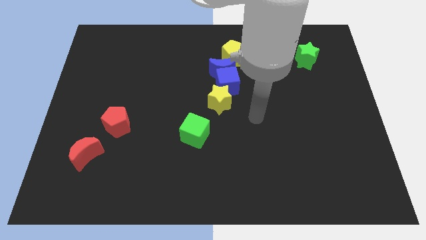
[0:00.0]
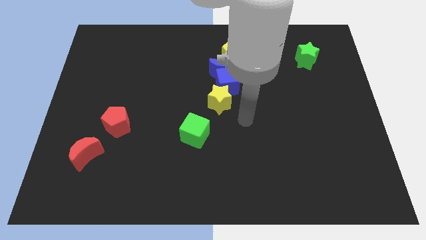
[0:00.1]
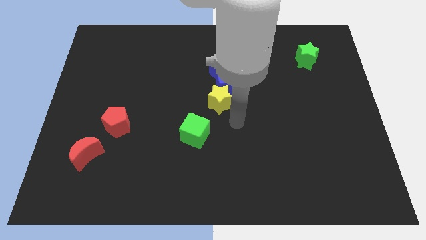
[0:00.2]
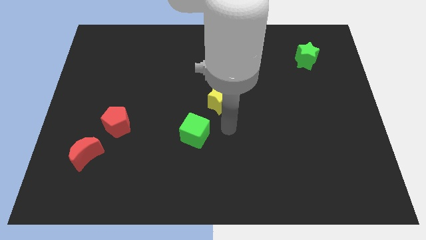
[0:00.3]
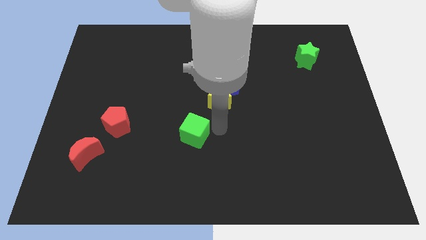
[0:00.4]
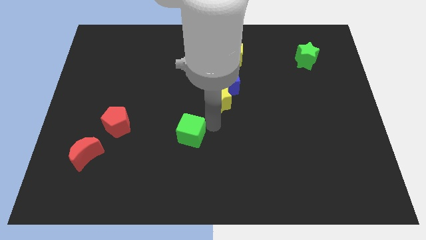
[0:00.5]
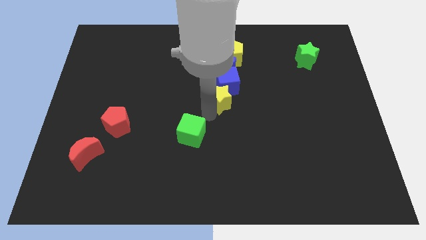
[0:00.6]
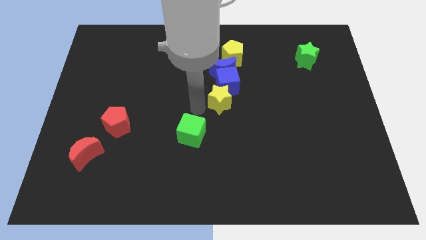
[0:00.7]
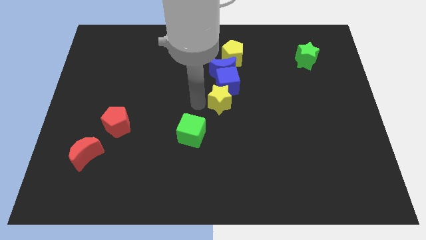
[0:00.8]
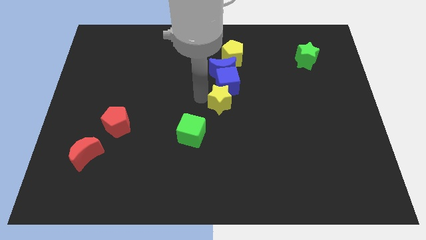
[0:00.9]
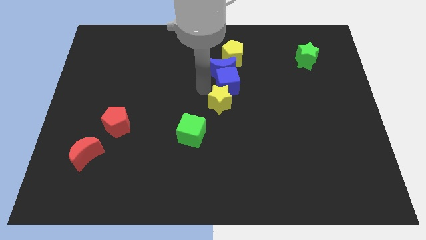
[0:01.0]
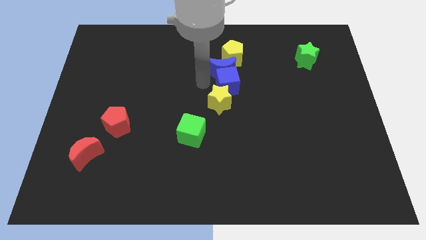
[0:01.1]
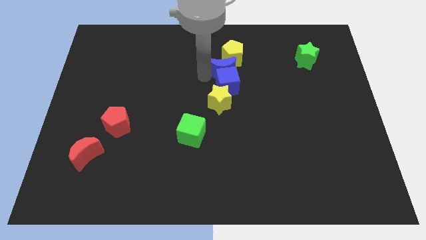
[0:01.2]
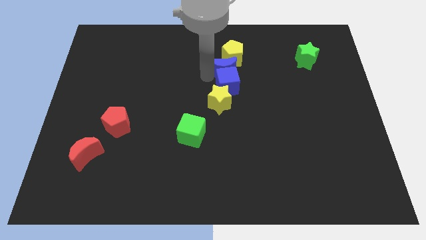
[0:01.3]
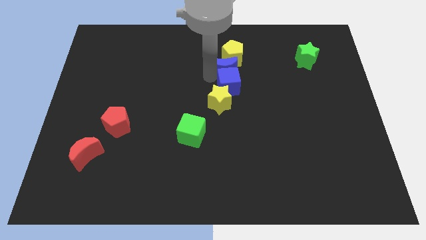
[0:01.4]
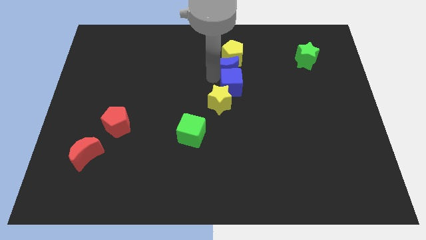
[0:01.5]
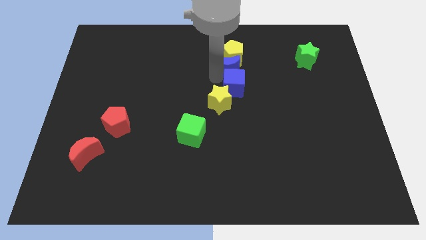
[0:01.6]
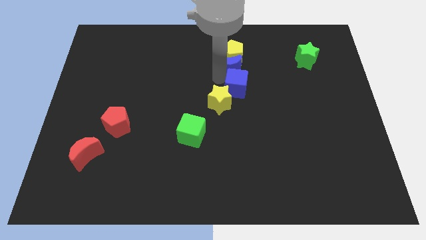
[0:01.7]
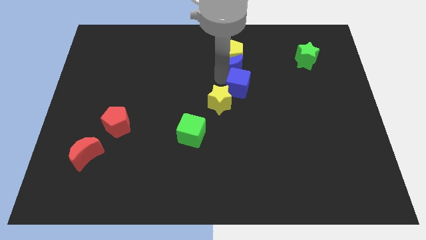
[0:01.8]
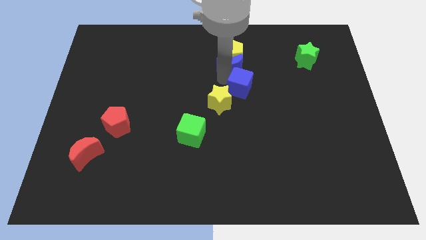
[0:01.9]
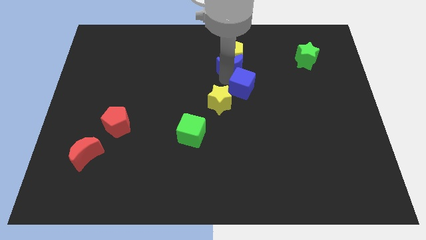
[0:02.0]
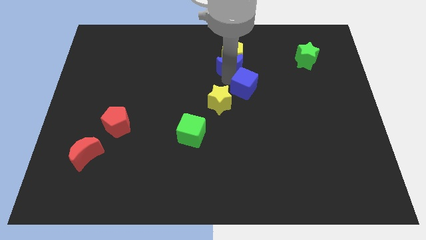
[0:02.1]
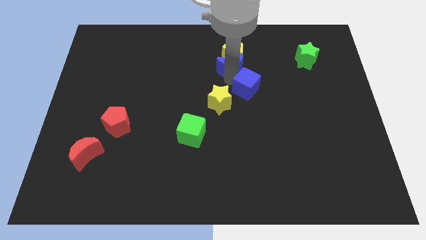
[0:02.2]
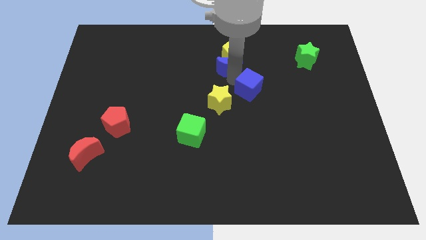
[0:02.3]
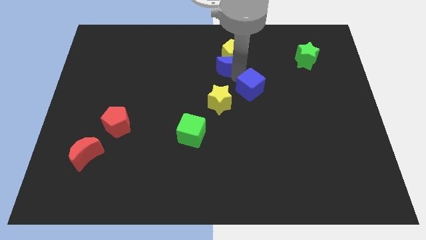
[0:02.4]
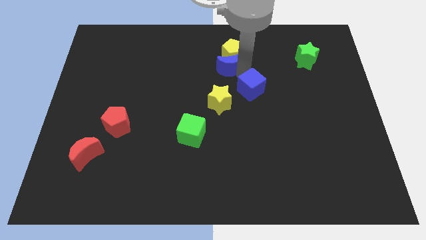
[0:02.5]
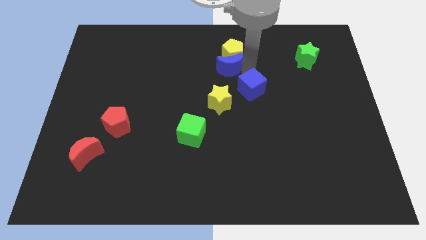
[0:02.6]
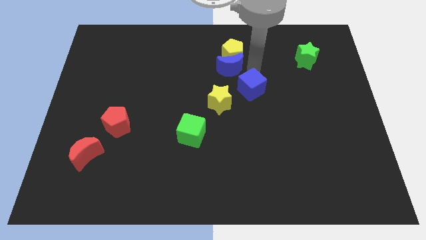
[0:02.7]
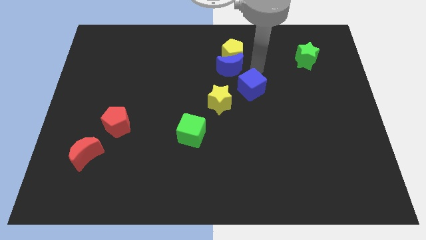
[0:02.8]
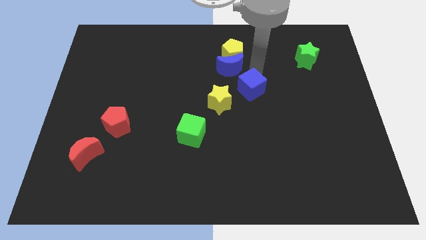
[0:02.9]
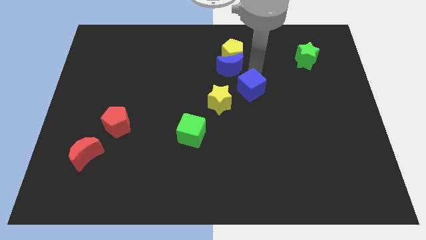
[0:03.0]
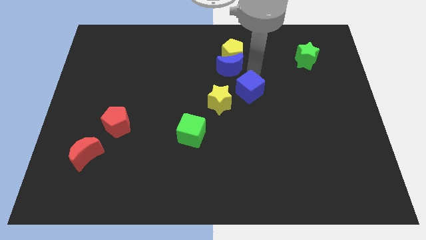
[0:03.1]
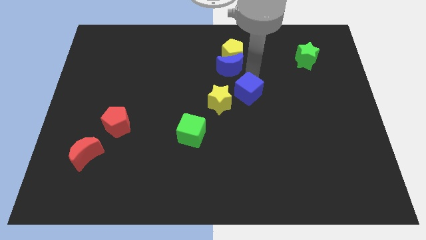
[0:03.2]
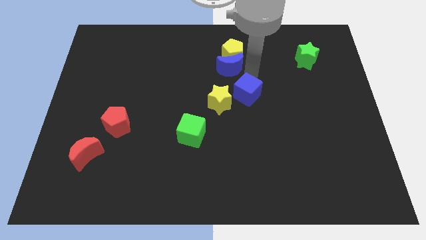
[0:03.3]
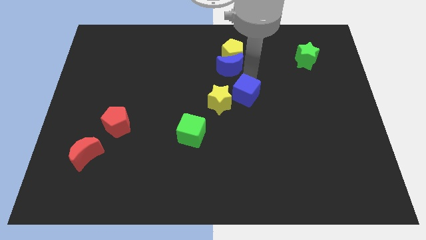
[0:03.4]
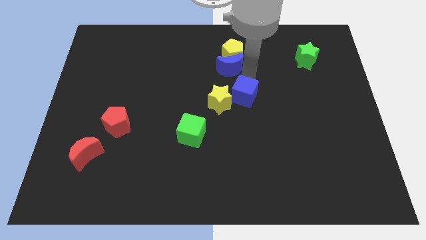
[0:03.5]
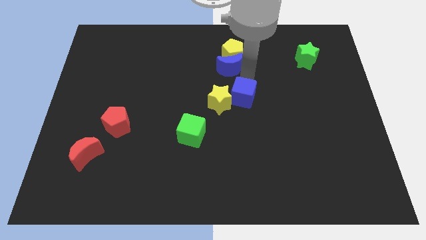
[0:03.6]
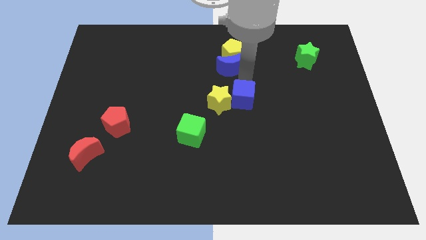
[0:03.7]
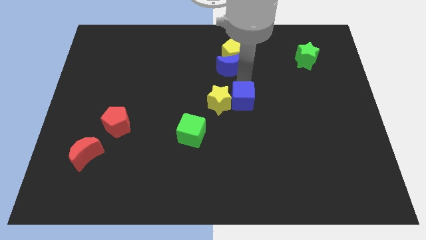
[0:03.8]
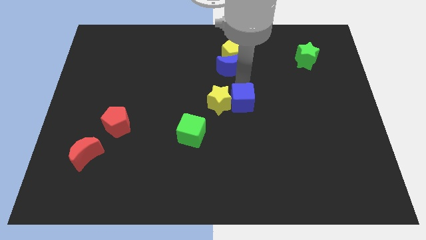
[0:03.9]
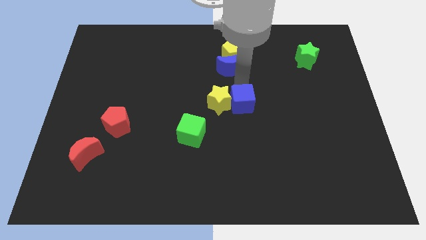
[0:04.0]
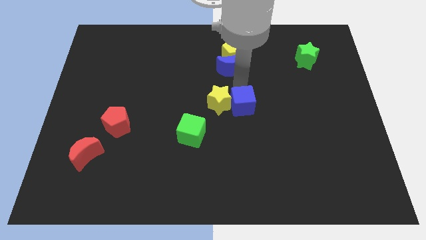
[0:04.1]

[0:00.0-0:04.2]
pull the blue cube apart from the blue moon, yellow star, and yellow pentagon

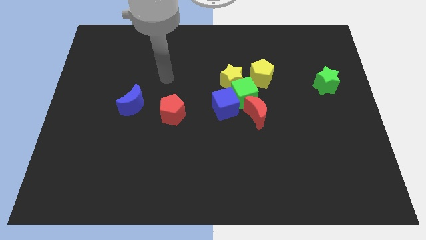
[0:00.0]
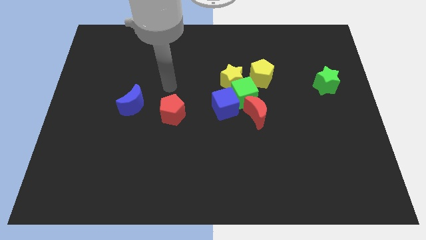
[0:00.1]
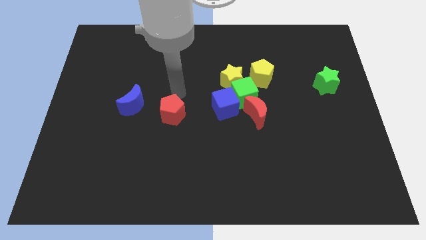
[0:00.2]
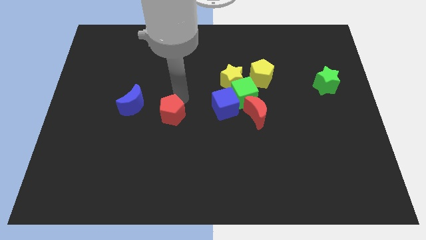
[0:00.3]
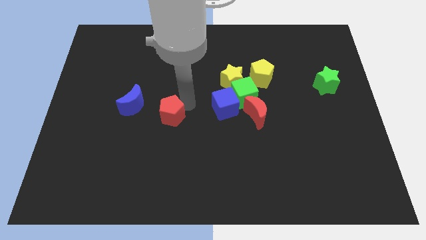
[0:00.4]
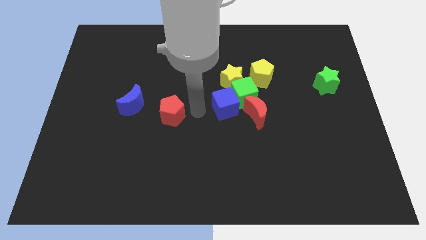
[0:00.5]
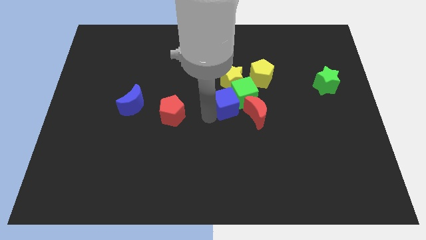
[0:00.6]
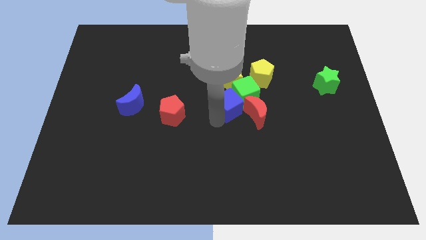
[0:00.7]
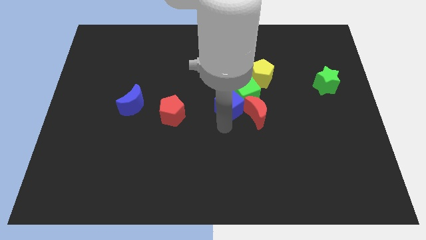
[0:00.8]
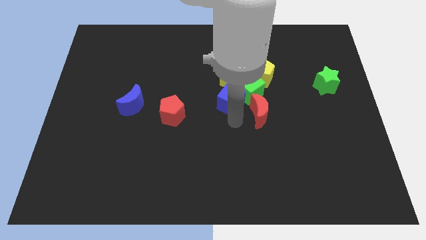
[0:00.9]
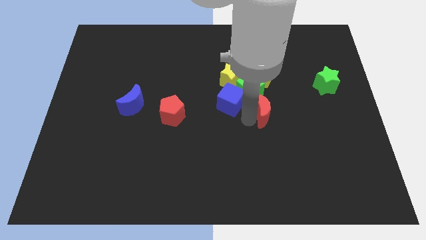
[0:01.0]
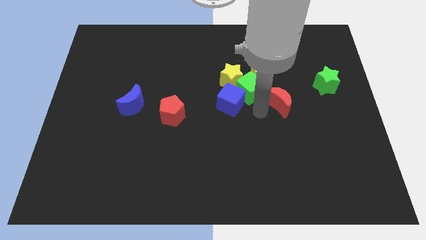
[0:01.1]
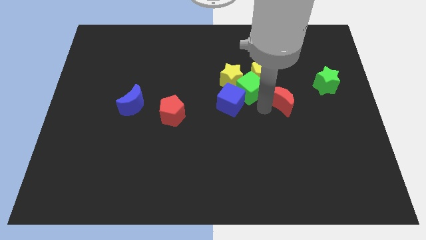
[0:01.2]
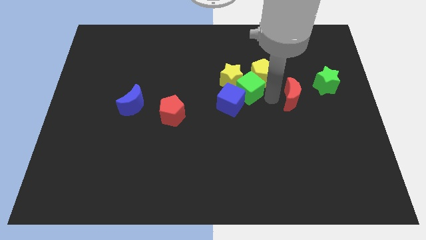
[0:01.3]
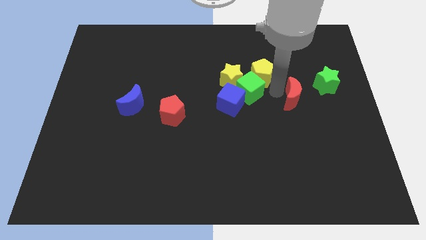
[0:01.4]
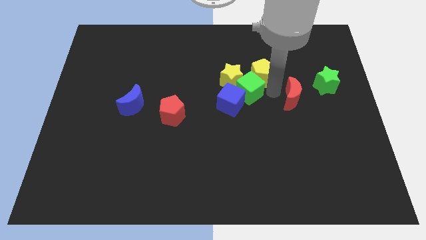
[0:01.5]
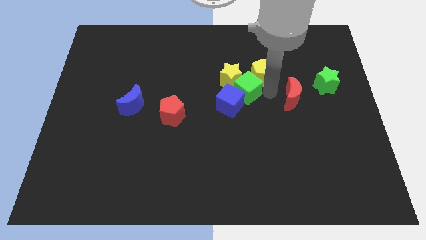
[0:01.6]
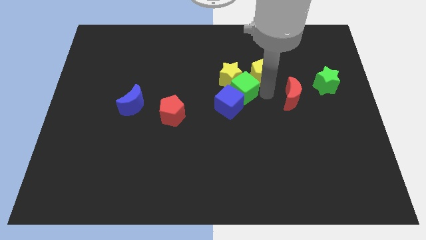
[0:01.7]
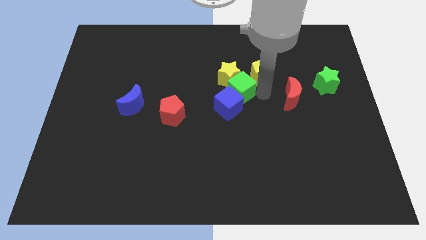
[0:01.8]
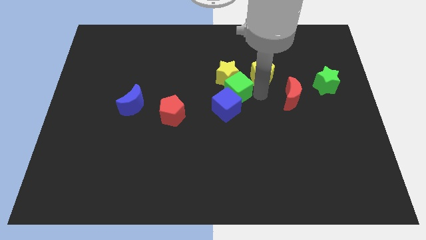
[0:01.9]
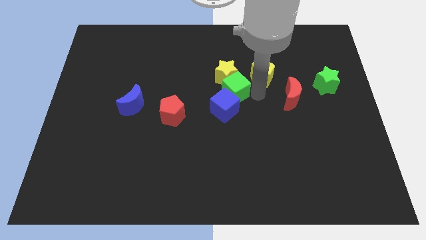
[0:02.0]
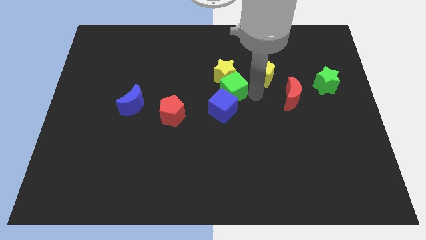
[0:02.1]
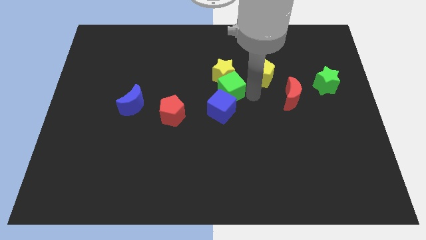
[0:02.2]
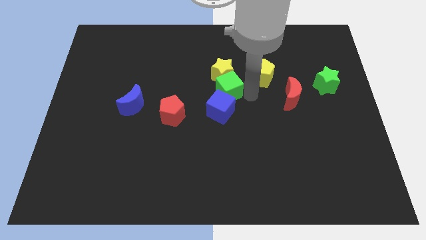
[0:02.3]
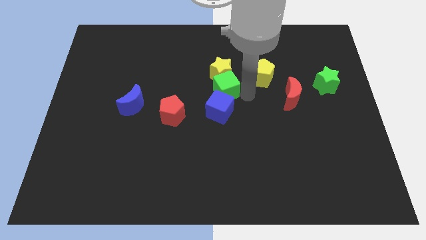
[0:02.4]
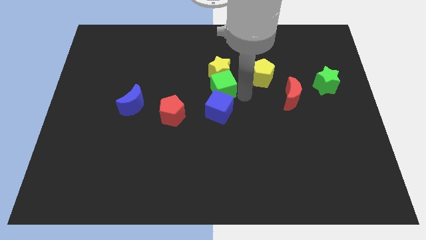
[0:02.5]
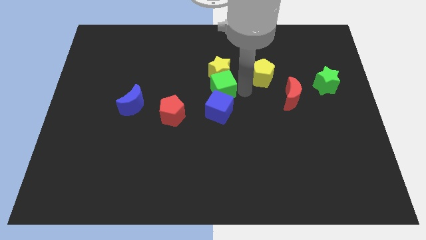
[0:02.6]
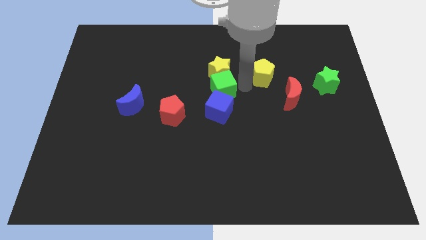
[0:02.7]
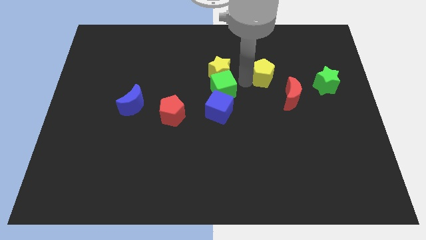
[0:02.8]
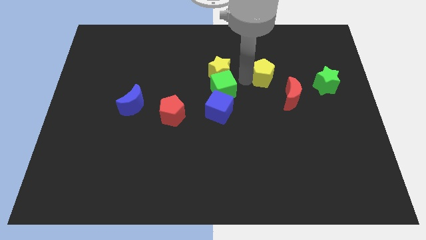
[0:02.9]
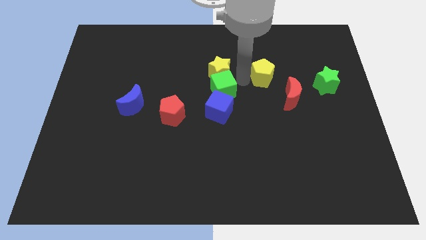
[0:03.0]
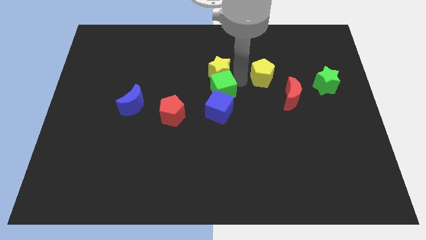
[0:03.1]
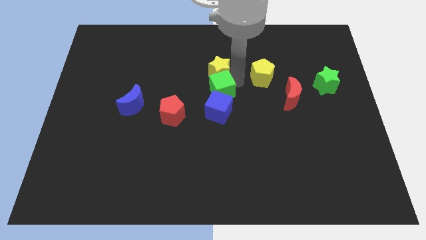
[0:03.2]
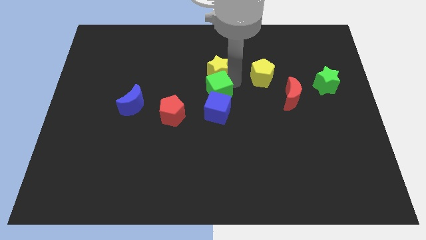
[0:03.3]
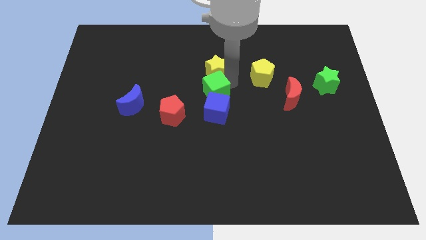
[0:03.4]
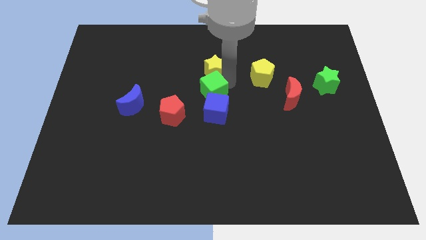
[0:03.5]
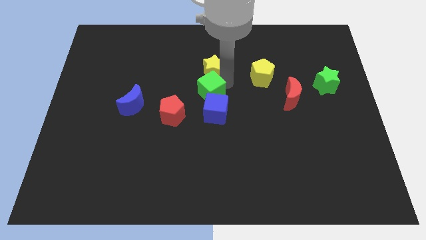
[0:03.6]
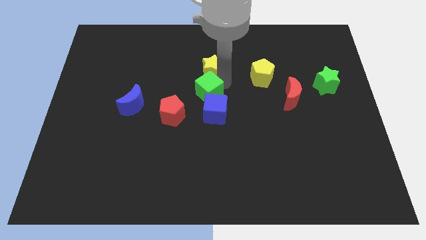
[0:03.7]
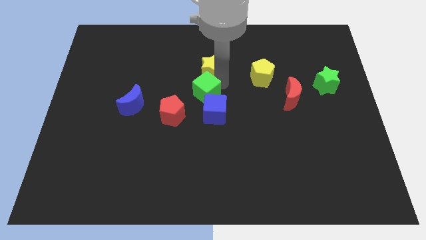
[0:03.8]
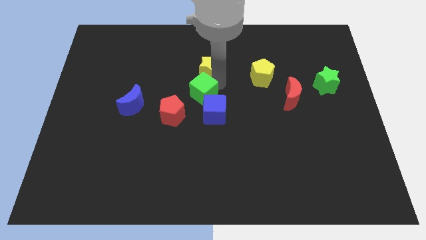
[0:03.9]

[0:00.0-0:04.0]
pull the green cube apart from the clump

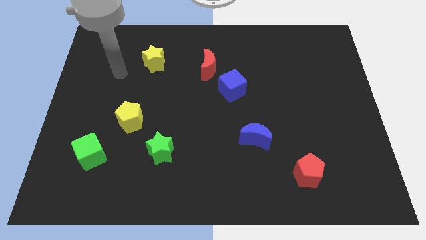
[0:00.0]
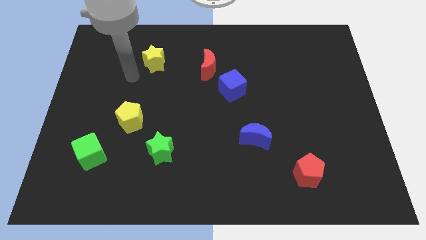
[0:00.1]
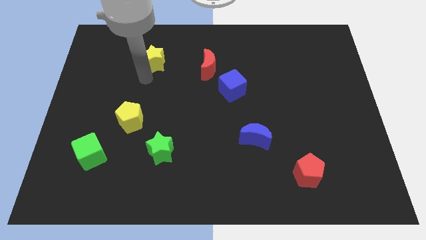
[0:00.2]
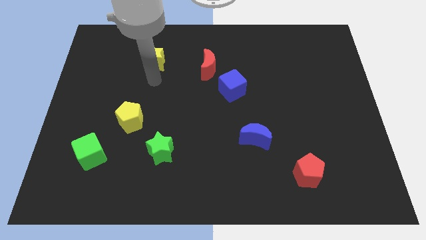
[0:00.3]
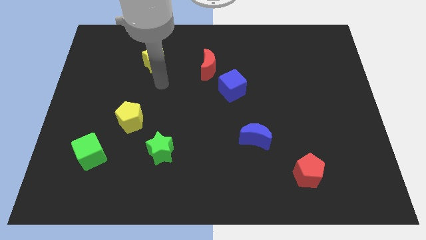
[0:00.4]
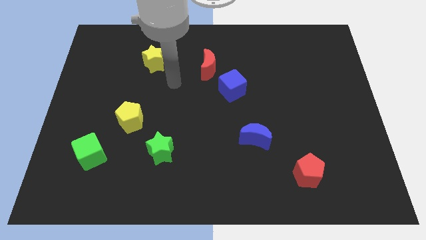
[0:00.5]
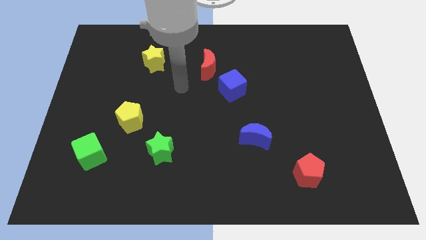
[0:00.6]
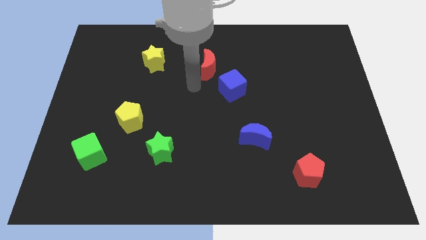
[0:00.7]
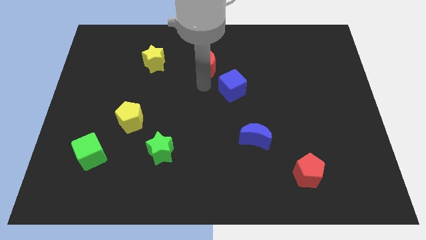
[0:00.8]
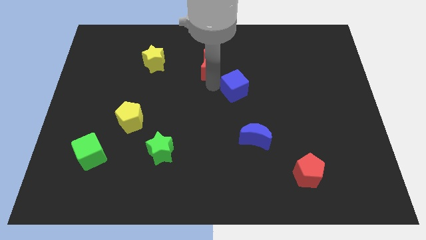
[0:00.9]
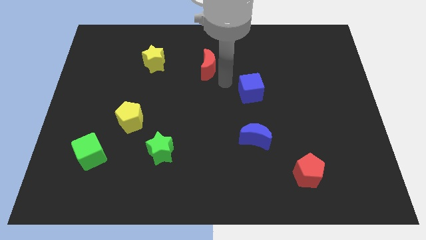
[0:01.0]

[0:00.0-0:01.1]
separate the red moon from the blue cube

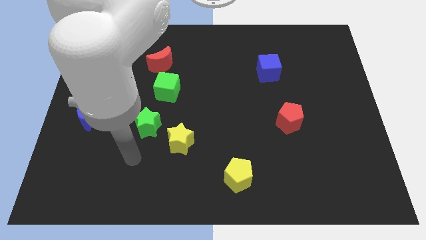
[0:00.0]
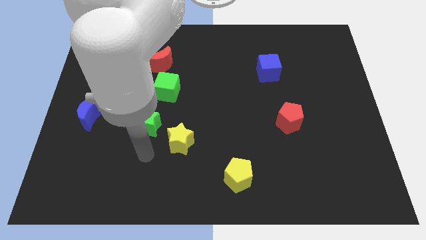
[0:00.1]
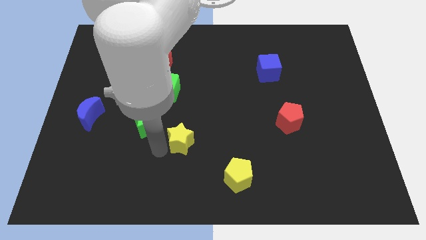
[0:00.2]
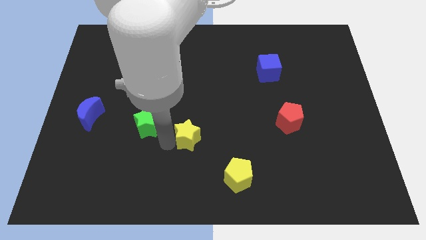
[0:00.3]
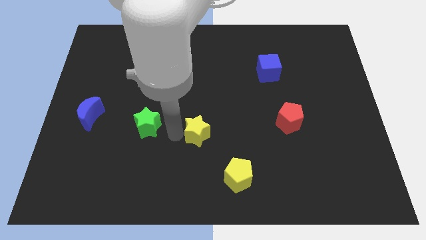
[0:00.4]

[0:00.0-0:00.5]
move the green star away from the yellow star
